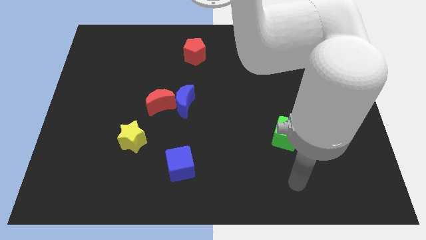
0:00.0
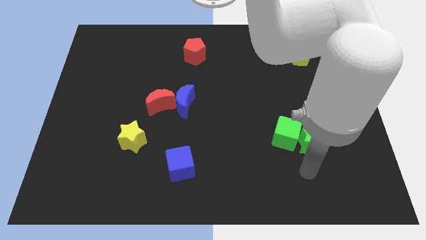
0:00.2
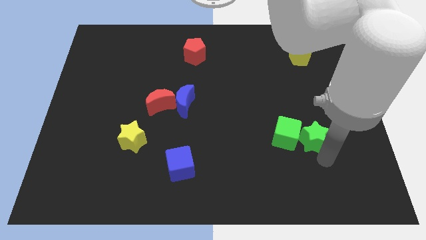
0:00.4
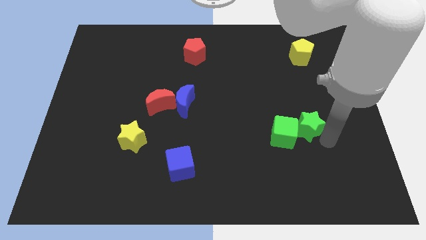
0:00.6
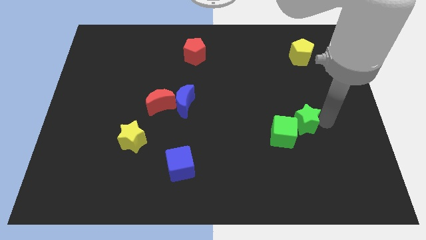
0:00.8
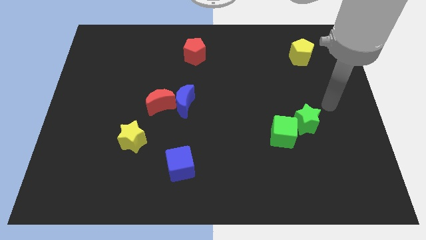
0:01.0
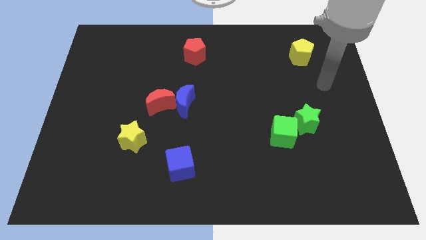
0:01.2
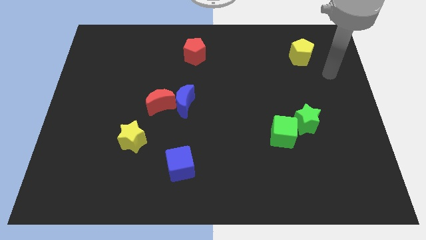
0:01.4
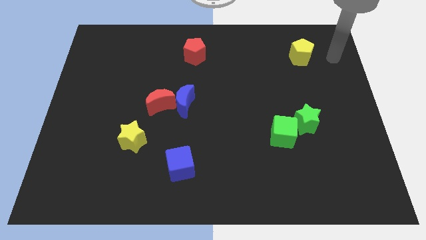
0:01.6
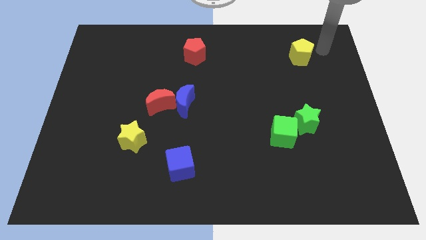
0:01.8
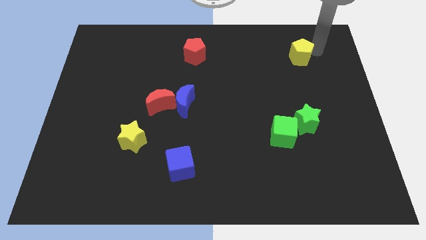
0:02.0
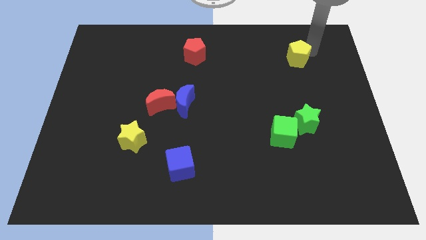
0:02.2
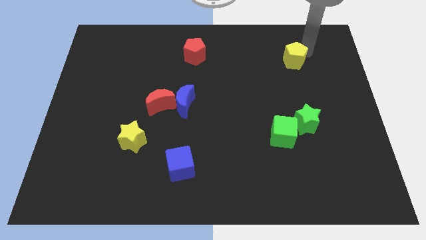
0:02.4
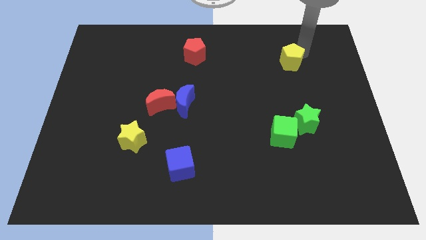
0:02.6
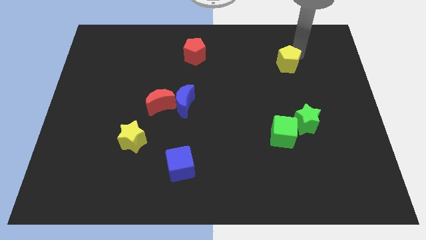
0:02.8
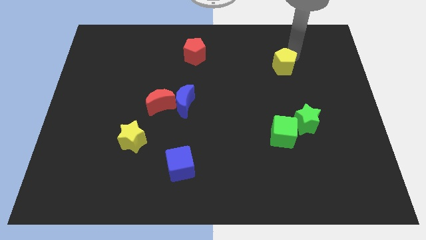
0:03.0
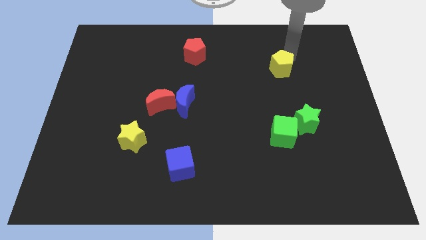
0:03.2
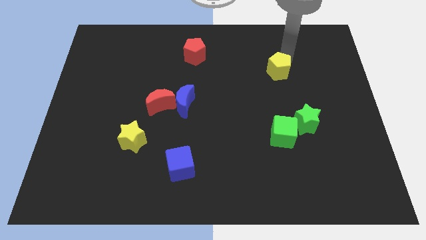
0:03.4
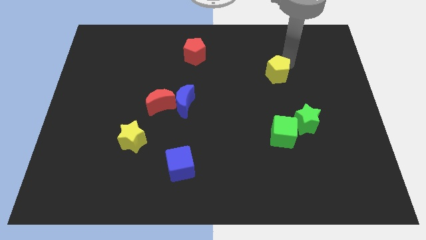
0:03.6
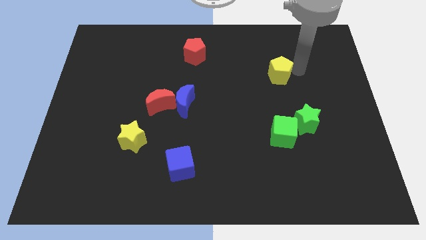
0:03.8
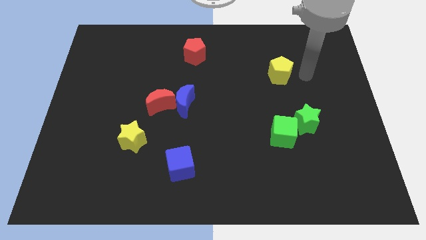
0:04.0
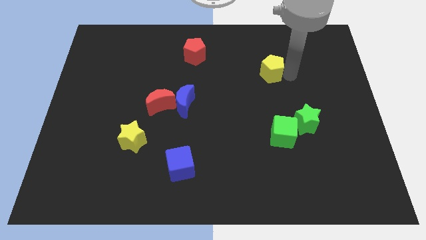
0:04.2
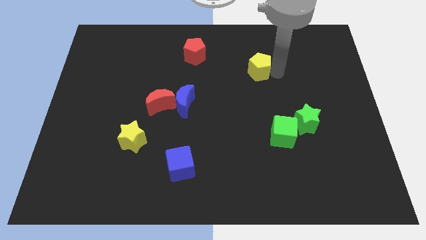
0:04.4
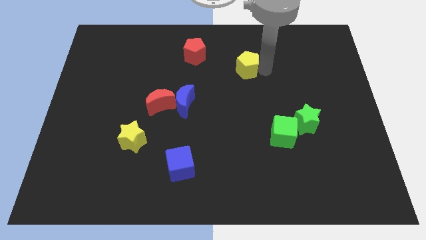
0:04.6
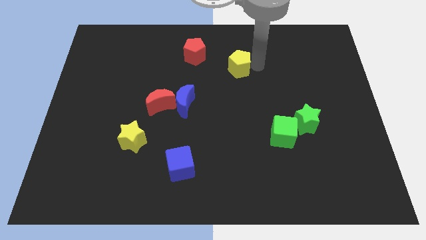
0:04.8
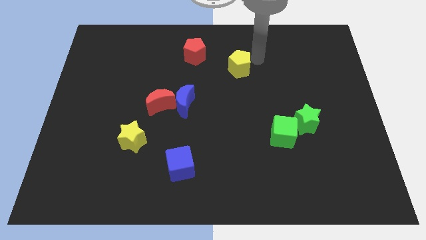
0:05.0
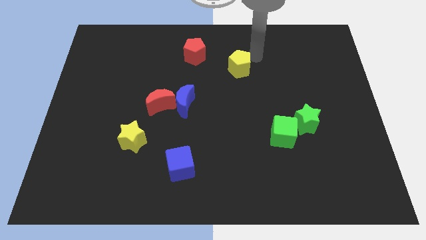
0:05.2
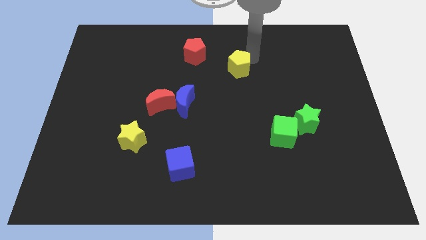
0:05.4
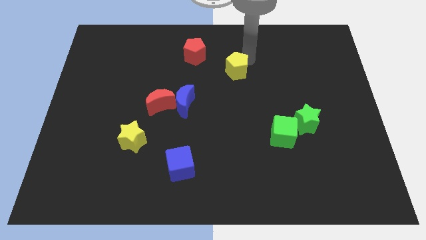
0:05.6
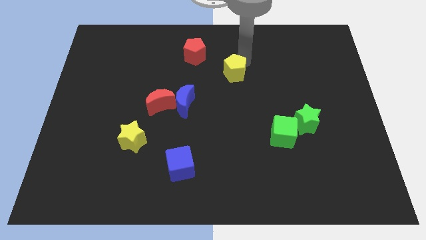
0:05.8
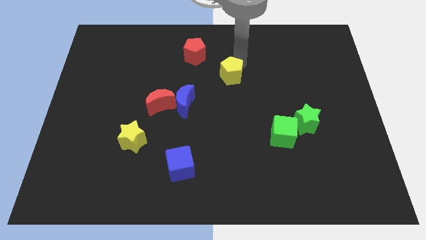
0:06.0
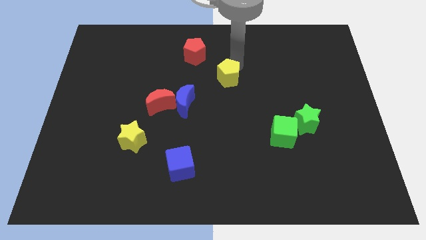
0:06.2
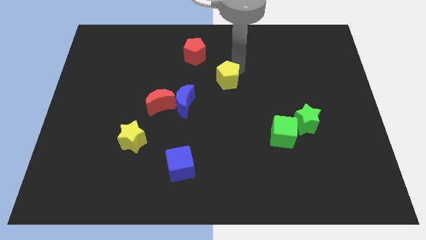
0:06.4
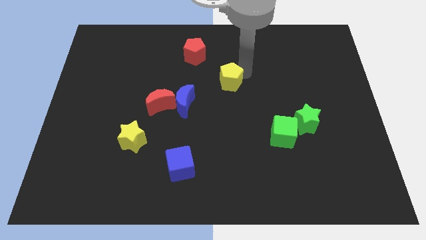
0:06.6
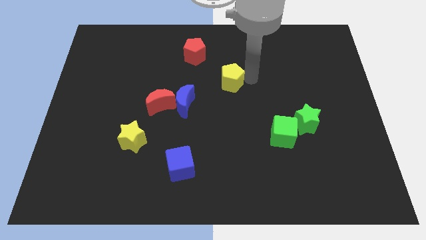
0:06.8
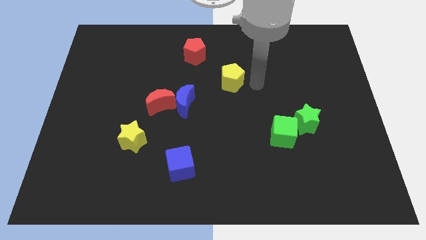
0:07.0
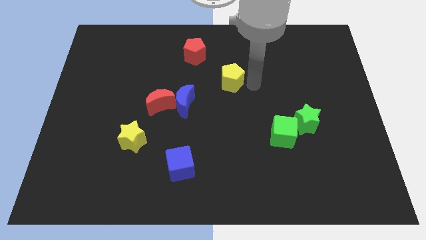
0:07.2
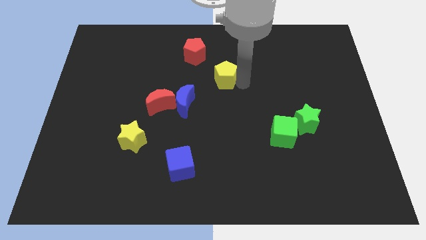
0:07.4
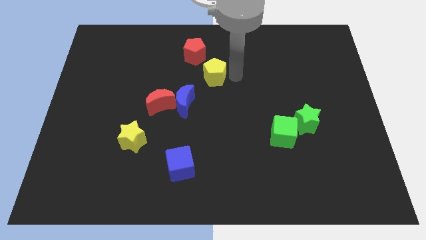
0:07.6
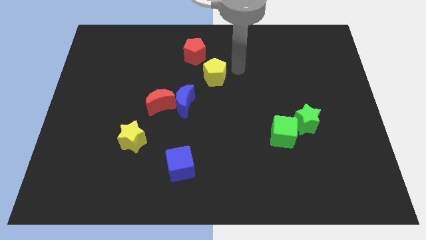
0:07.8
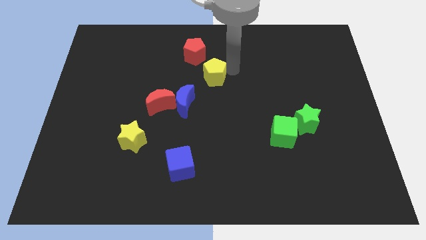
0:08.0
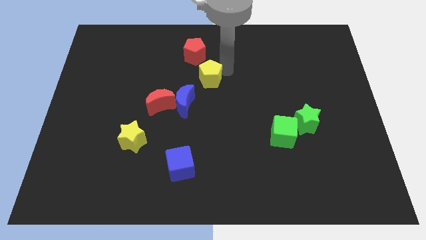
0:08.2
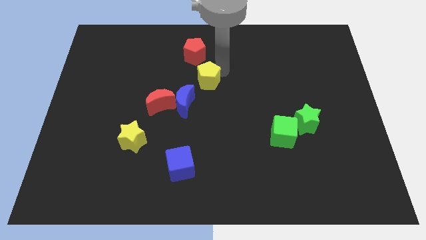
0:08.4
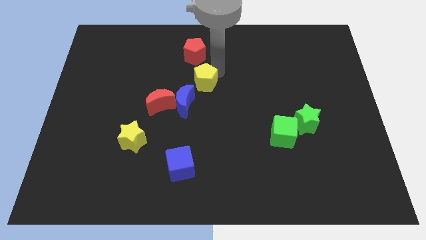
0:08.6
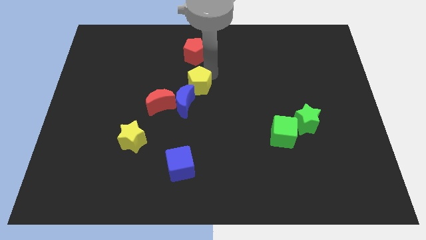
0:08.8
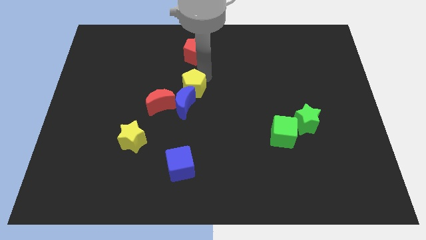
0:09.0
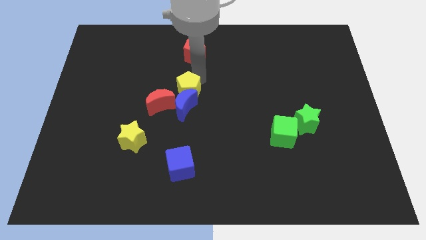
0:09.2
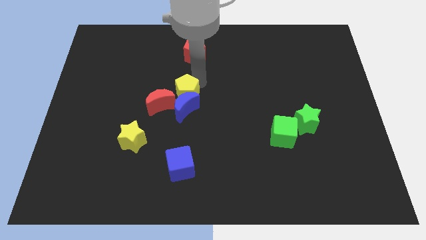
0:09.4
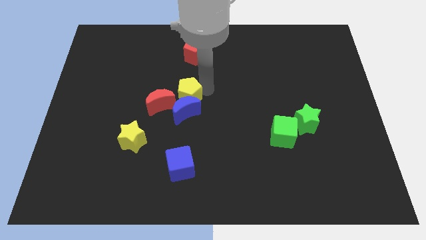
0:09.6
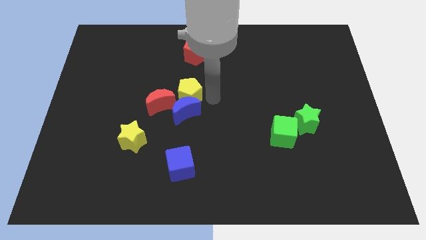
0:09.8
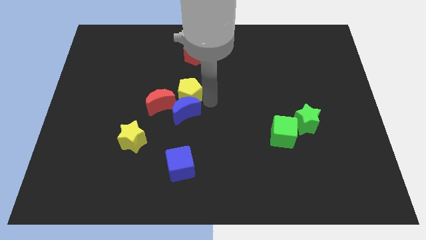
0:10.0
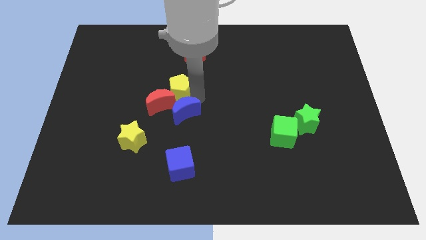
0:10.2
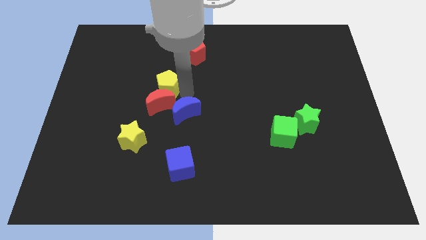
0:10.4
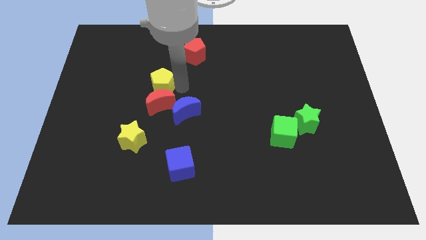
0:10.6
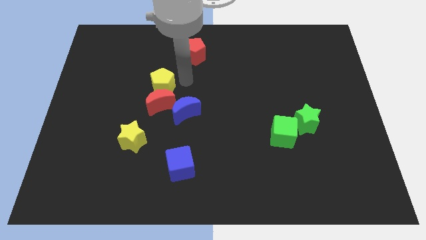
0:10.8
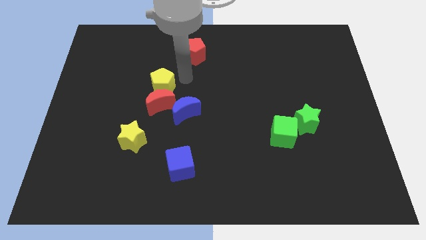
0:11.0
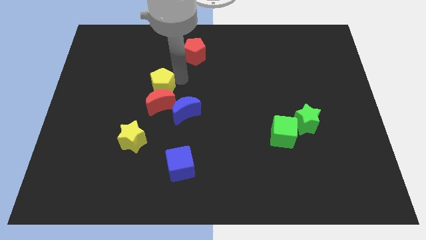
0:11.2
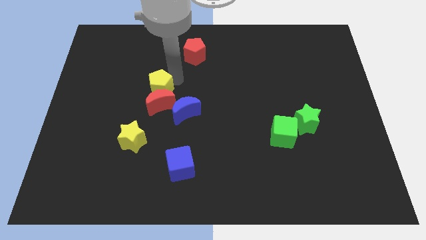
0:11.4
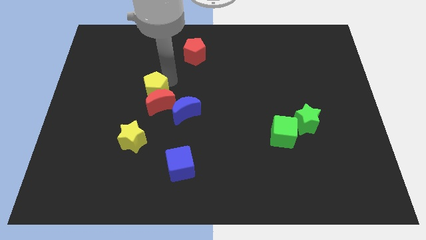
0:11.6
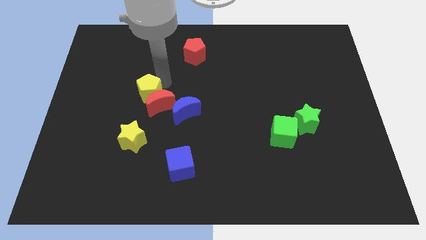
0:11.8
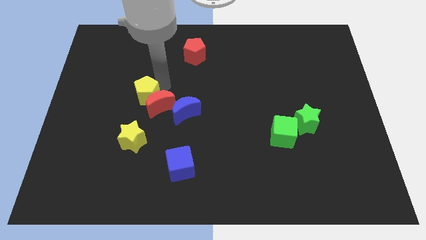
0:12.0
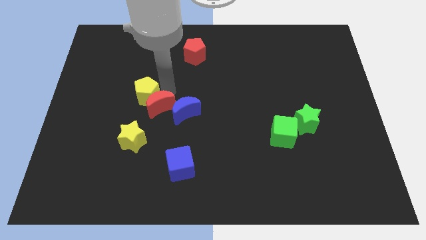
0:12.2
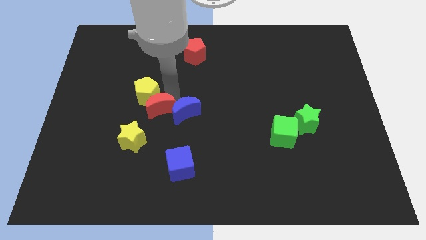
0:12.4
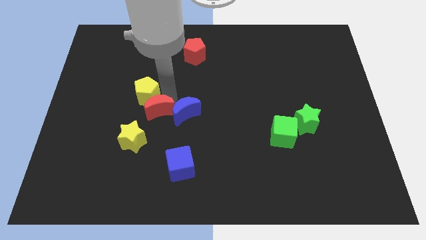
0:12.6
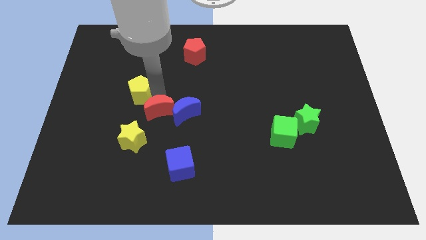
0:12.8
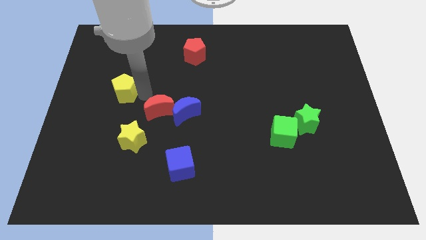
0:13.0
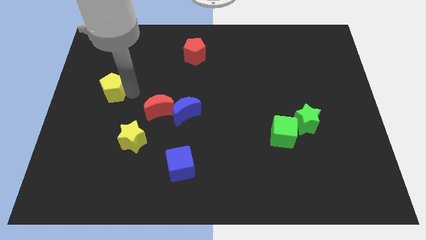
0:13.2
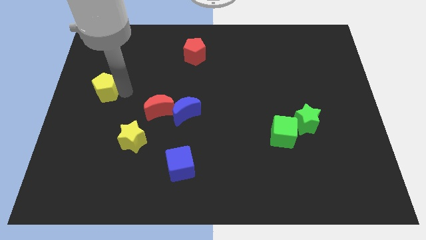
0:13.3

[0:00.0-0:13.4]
push the yellow pentagon to the left side

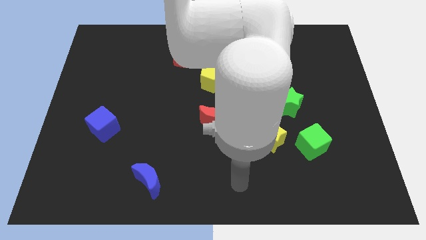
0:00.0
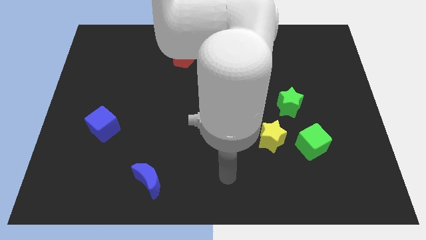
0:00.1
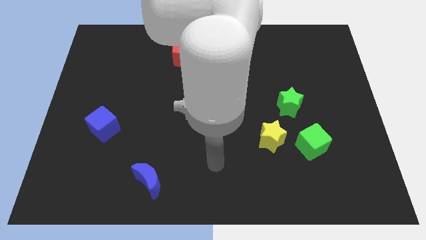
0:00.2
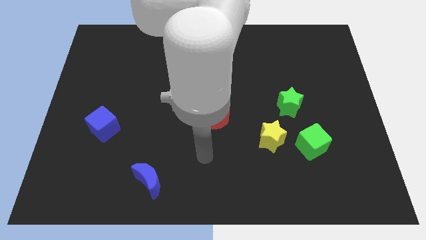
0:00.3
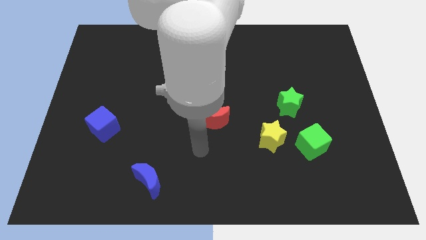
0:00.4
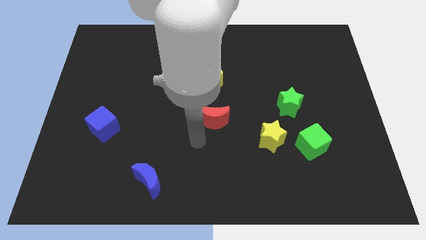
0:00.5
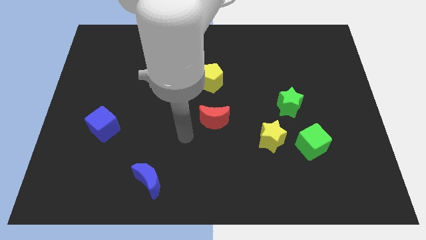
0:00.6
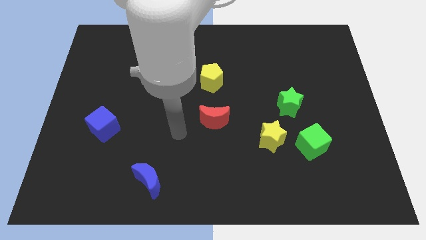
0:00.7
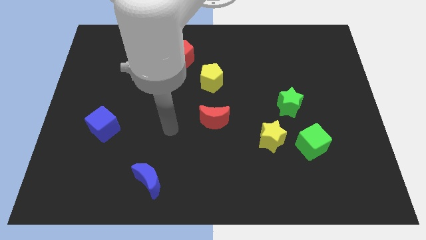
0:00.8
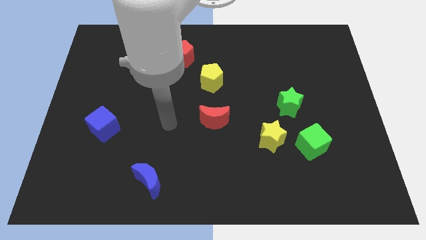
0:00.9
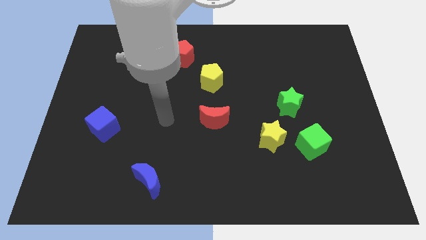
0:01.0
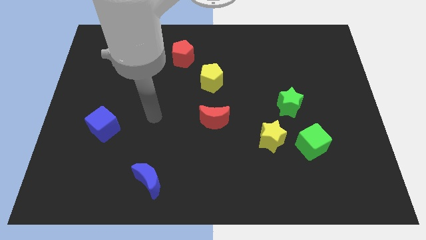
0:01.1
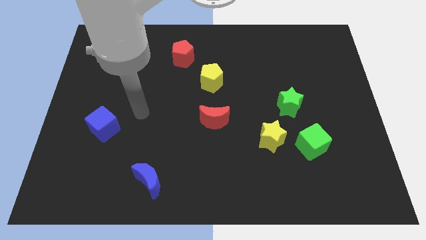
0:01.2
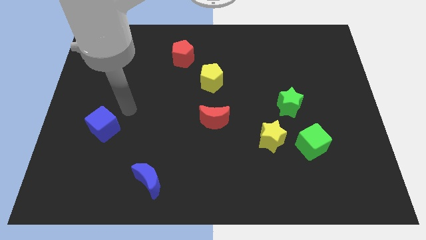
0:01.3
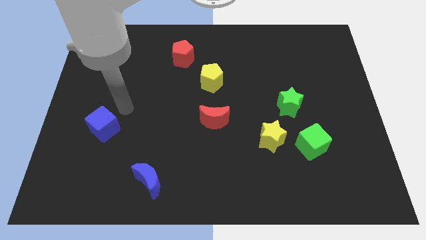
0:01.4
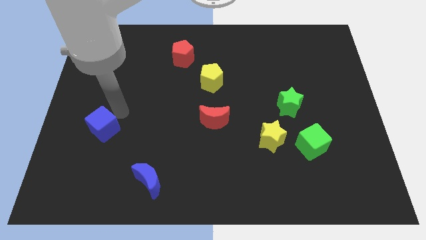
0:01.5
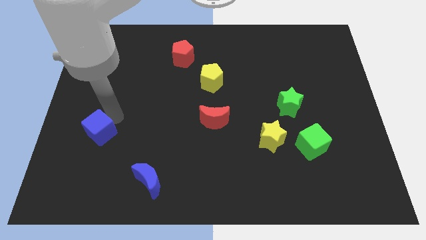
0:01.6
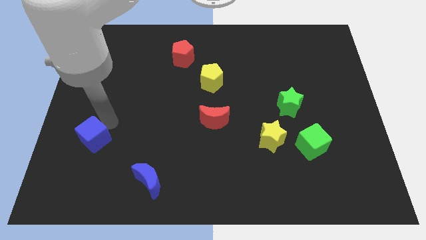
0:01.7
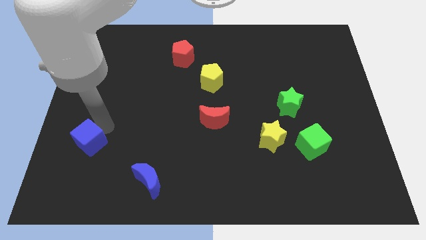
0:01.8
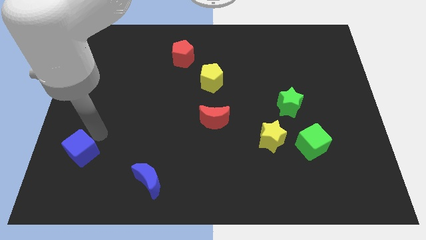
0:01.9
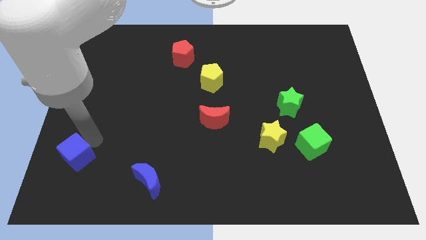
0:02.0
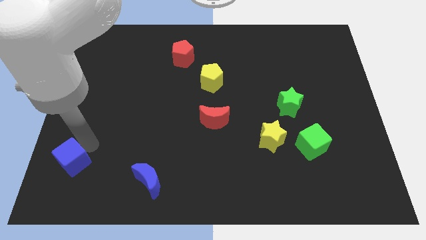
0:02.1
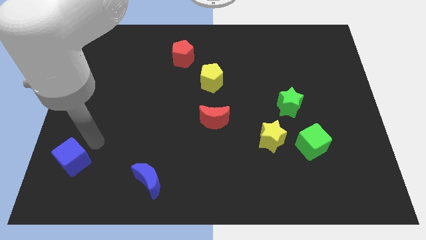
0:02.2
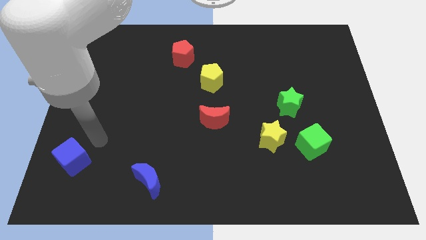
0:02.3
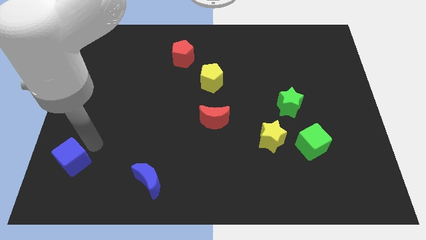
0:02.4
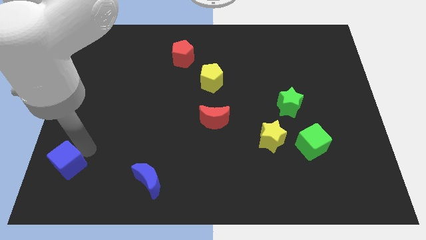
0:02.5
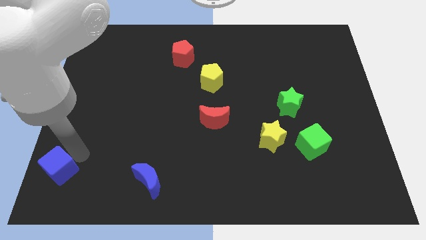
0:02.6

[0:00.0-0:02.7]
move the blue cube to the bottom left of the board
